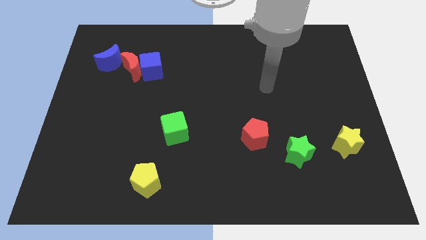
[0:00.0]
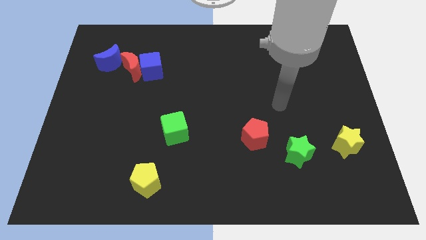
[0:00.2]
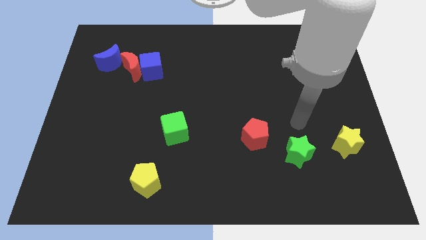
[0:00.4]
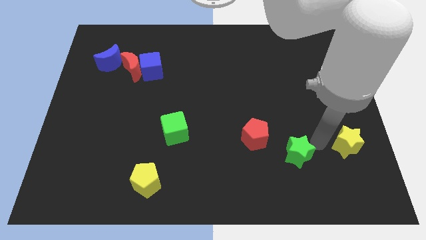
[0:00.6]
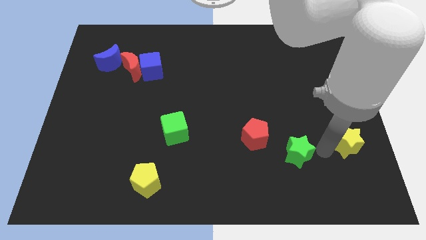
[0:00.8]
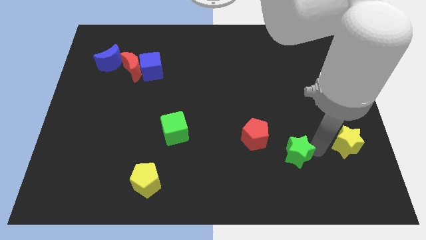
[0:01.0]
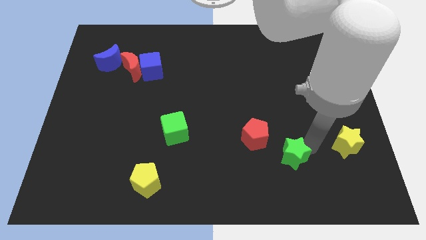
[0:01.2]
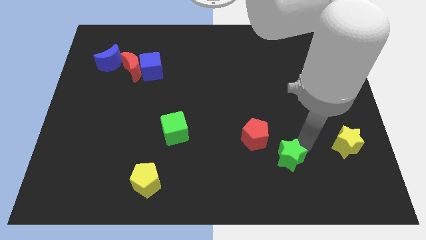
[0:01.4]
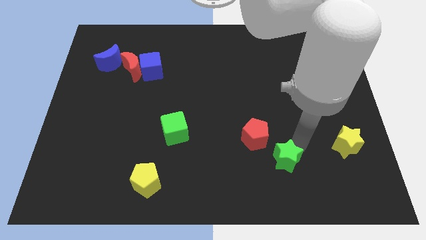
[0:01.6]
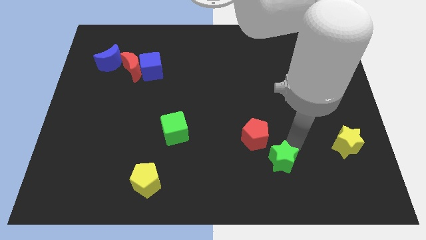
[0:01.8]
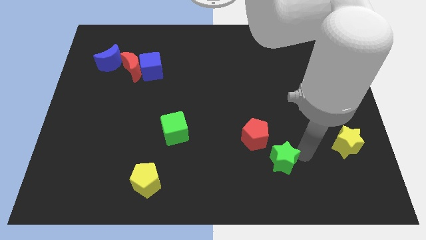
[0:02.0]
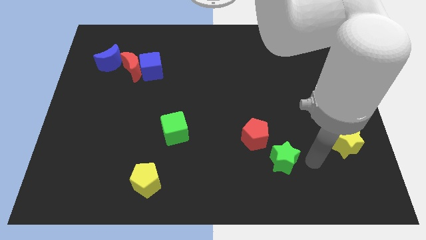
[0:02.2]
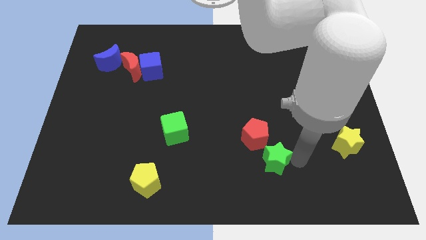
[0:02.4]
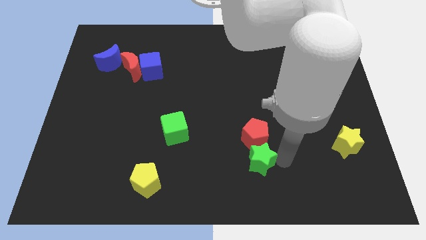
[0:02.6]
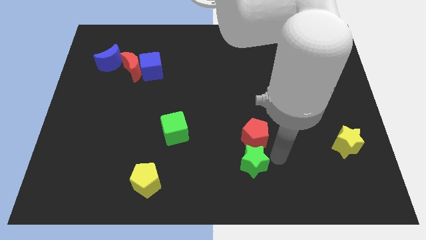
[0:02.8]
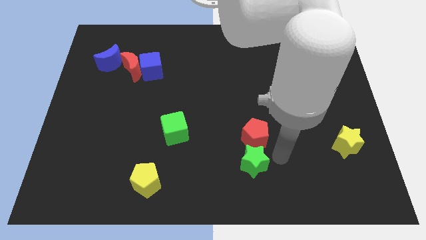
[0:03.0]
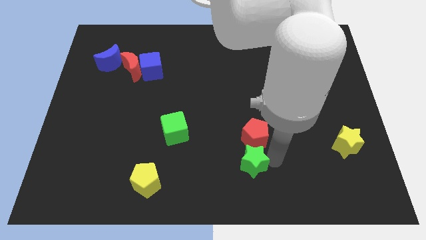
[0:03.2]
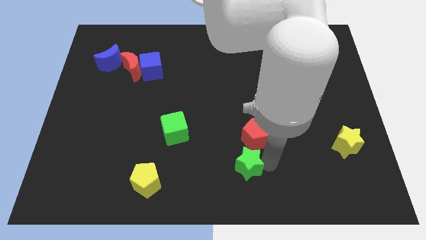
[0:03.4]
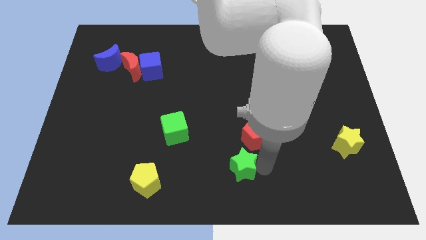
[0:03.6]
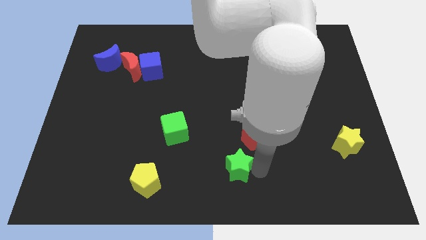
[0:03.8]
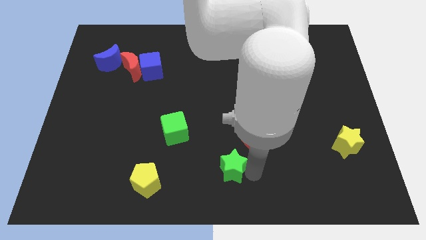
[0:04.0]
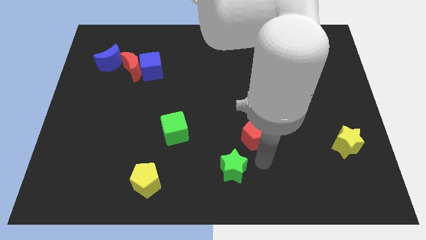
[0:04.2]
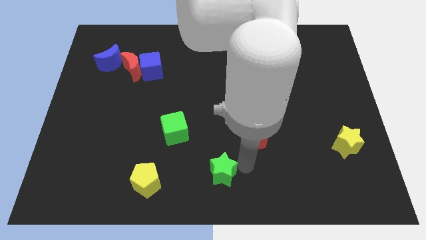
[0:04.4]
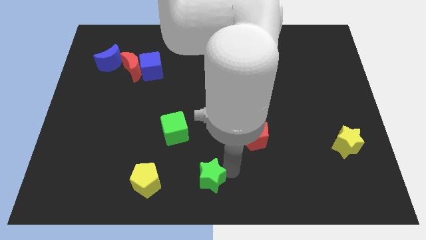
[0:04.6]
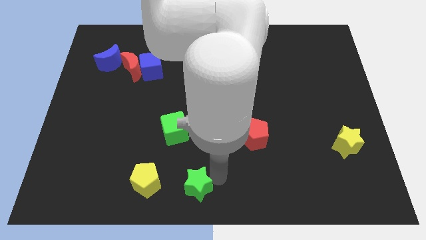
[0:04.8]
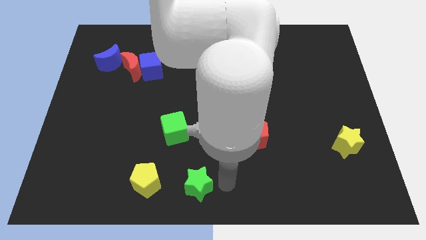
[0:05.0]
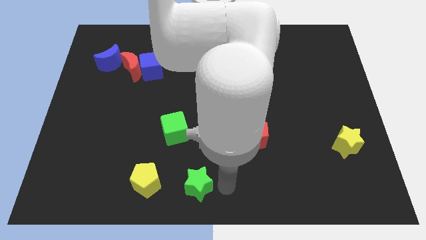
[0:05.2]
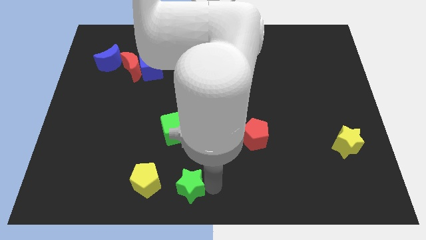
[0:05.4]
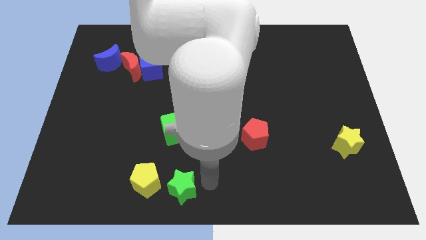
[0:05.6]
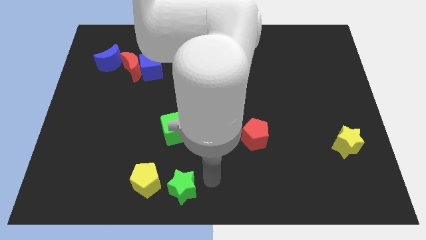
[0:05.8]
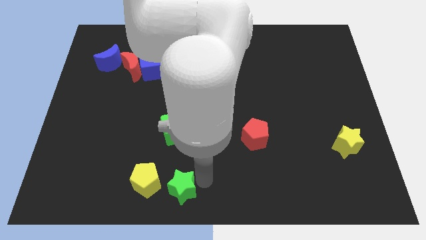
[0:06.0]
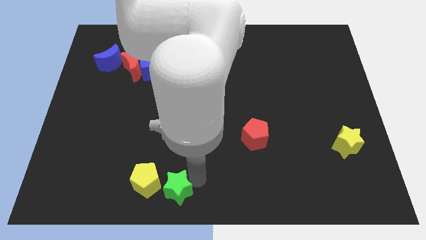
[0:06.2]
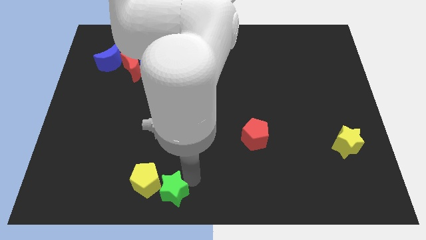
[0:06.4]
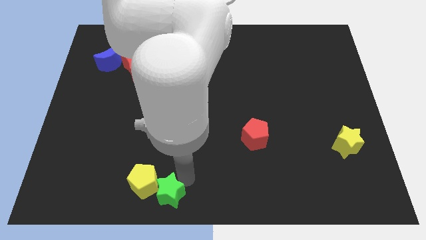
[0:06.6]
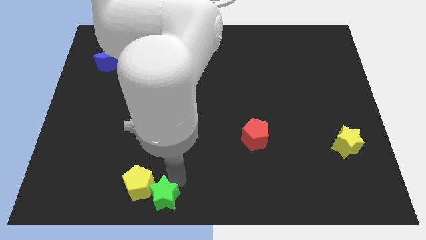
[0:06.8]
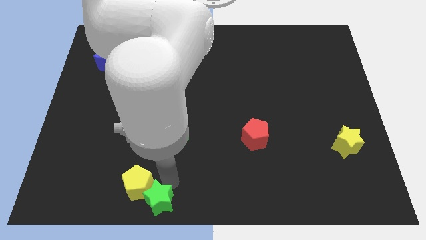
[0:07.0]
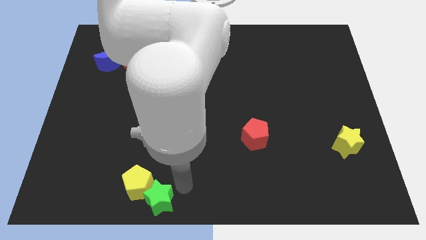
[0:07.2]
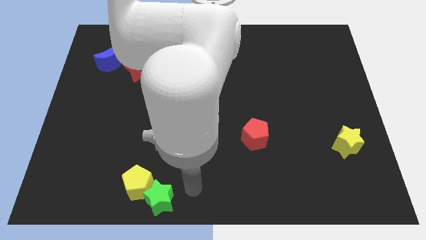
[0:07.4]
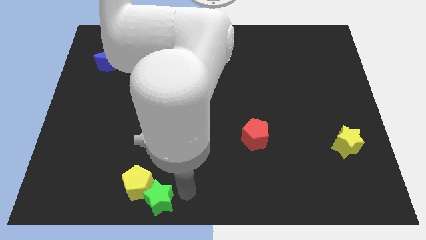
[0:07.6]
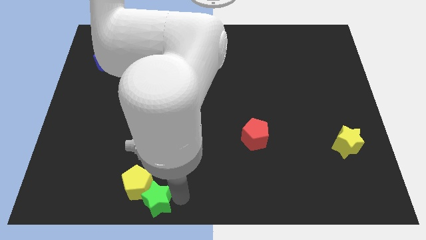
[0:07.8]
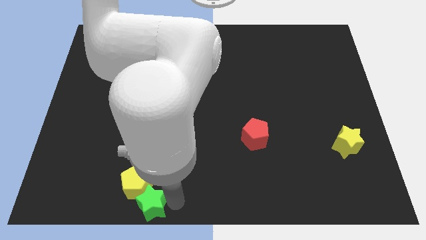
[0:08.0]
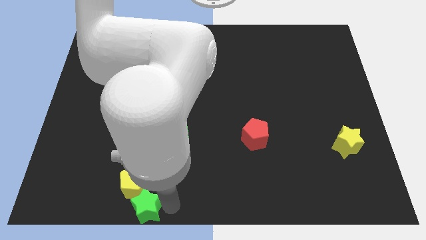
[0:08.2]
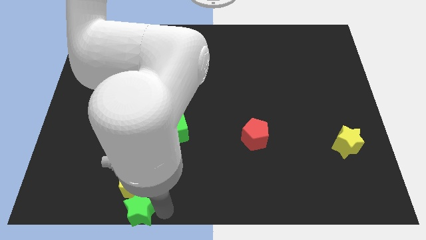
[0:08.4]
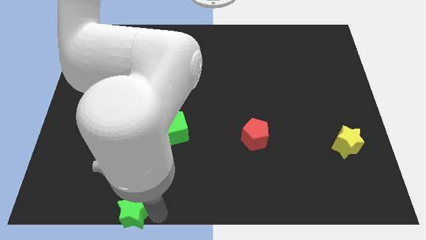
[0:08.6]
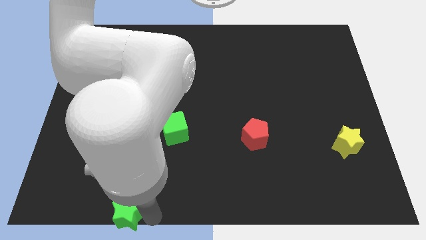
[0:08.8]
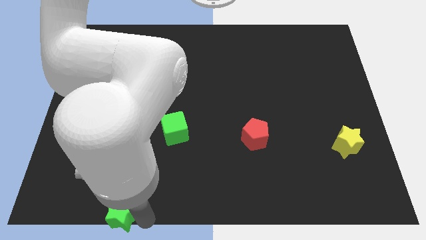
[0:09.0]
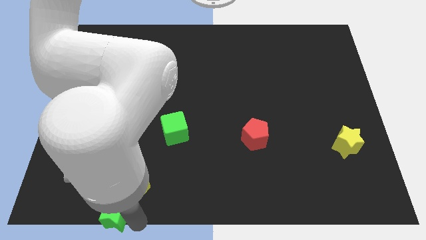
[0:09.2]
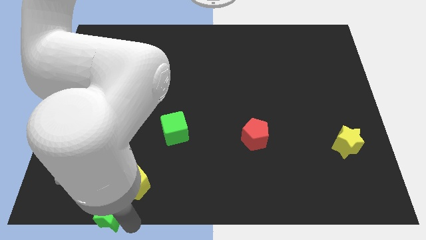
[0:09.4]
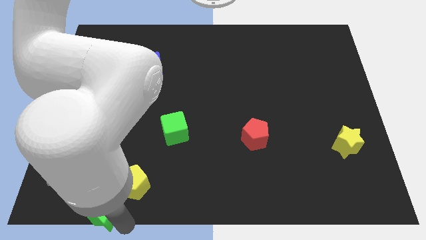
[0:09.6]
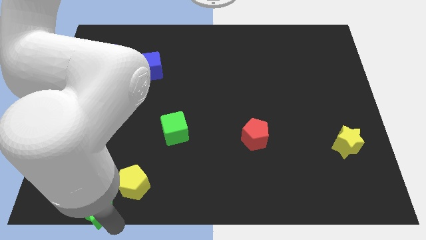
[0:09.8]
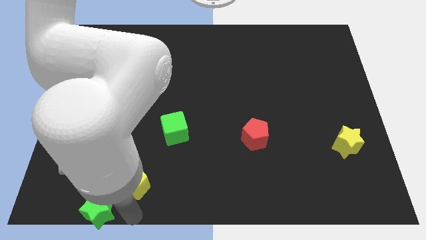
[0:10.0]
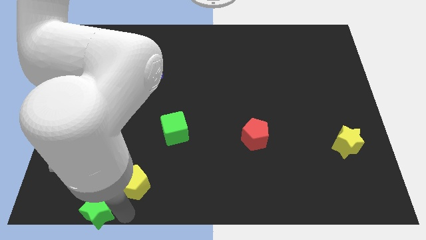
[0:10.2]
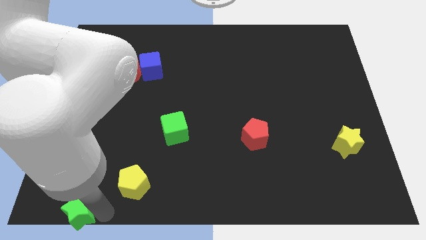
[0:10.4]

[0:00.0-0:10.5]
push the green star to the bottom left

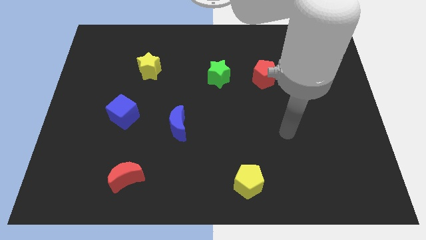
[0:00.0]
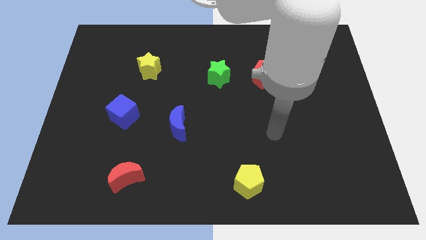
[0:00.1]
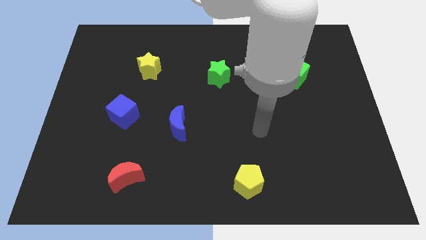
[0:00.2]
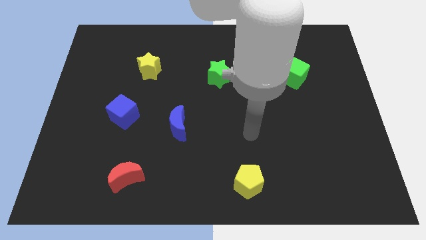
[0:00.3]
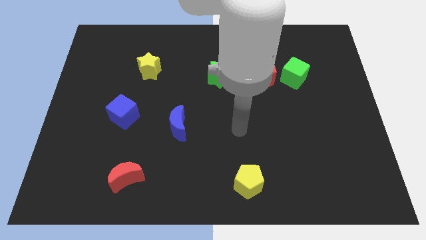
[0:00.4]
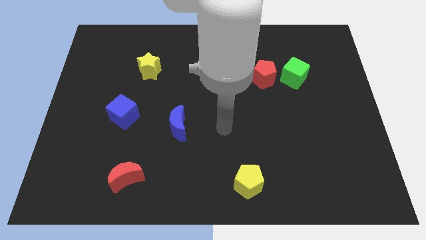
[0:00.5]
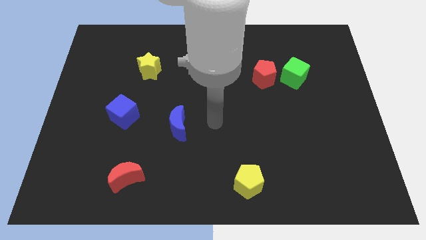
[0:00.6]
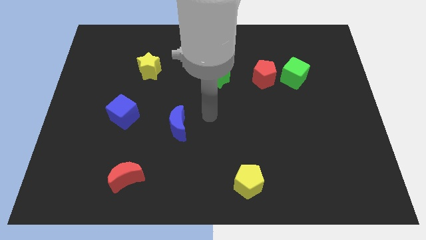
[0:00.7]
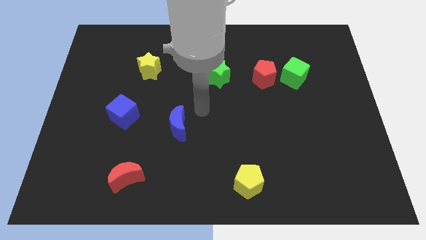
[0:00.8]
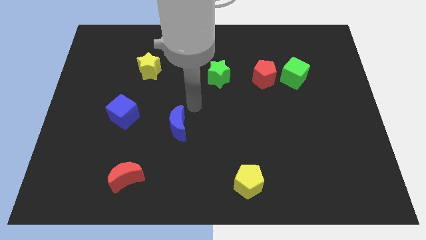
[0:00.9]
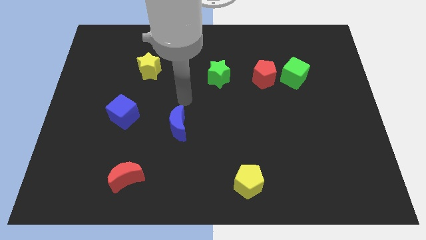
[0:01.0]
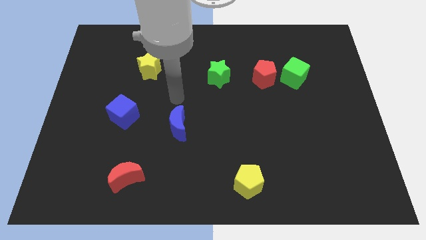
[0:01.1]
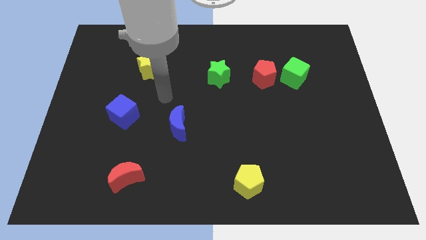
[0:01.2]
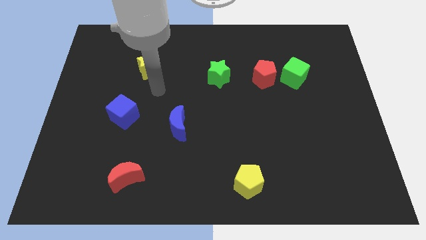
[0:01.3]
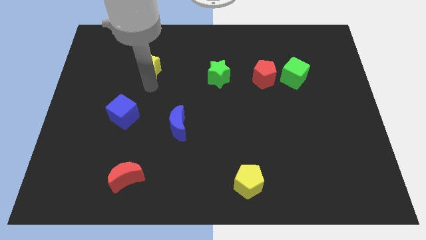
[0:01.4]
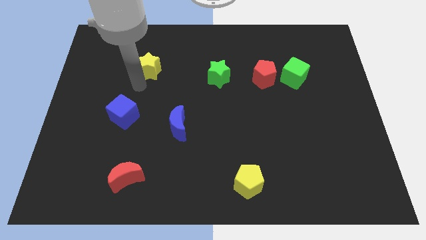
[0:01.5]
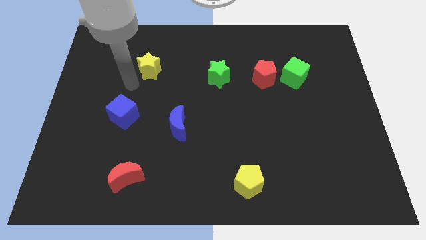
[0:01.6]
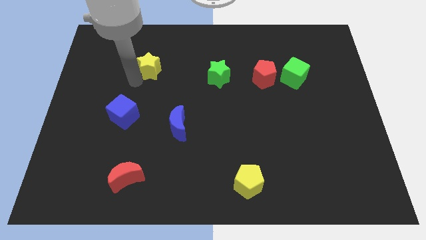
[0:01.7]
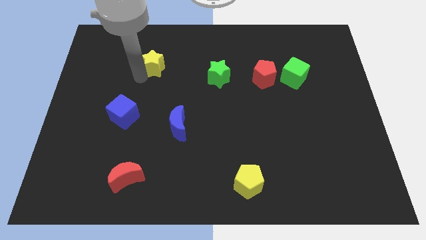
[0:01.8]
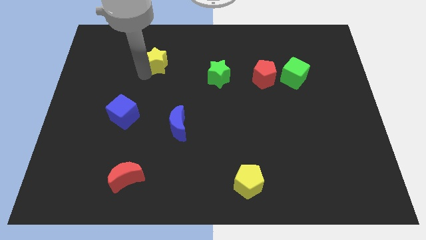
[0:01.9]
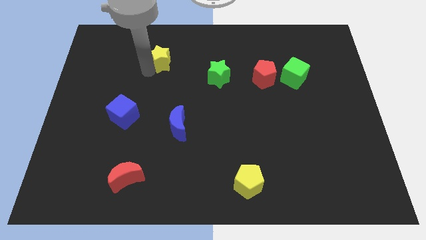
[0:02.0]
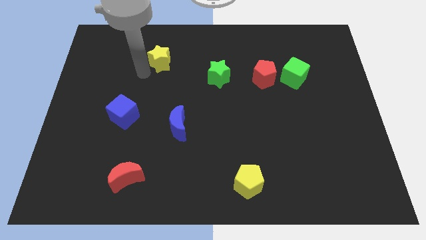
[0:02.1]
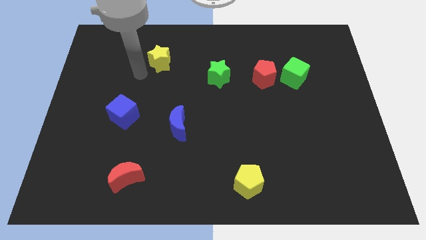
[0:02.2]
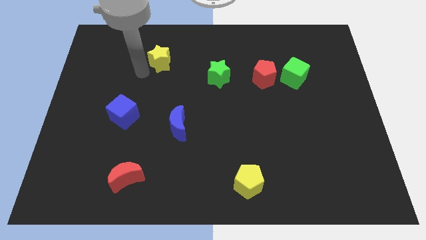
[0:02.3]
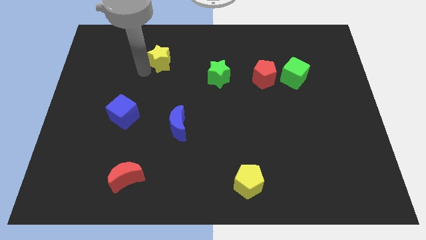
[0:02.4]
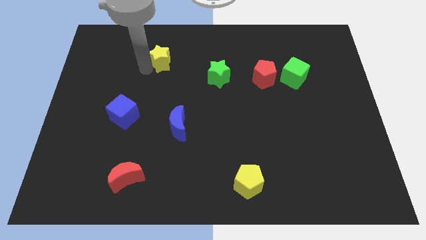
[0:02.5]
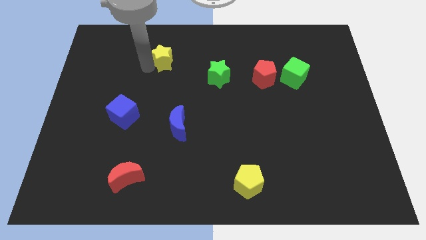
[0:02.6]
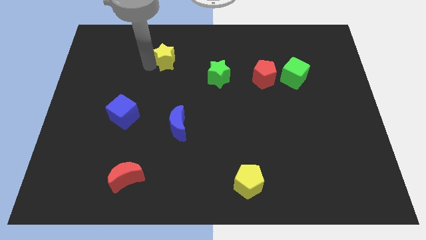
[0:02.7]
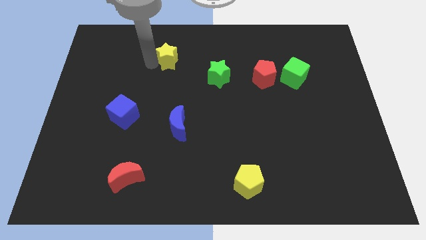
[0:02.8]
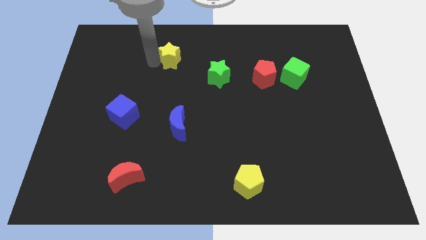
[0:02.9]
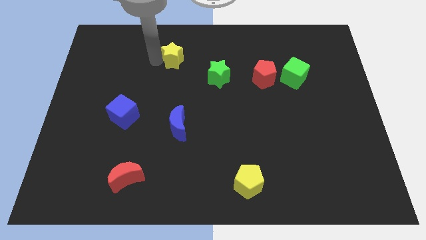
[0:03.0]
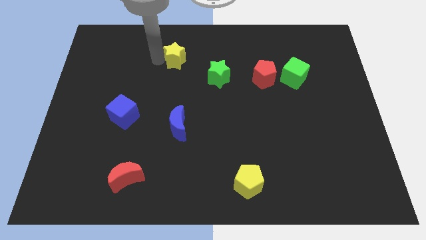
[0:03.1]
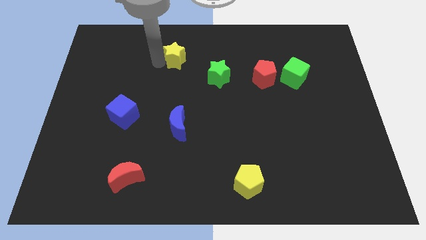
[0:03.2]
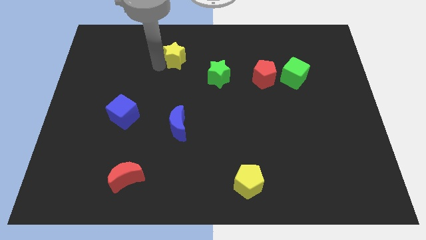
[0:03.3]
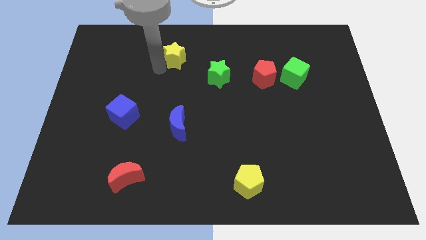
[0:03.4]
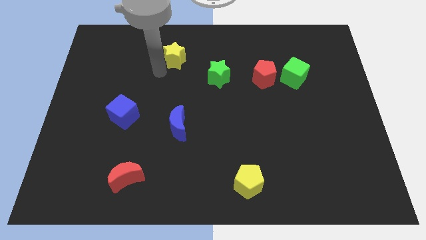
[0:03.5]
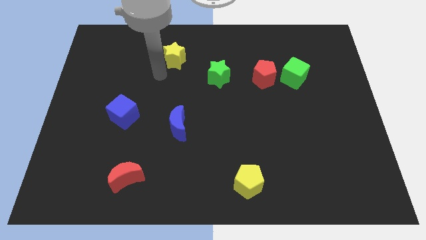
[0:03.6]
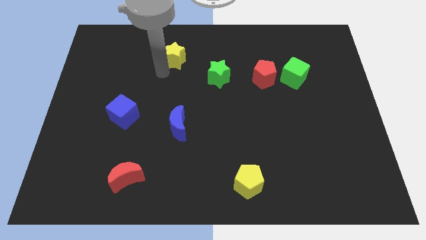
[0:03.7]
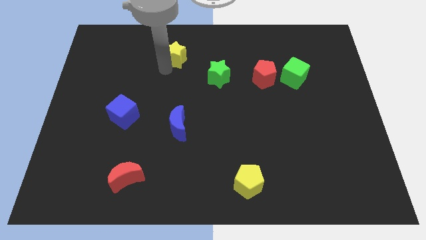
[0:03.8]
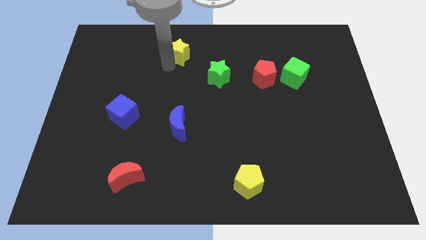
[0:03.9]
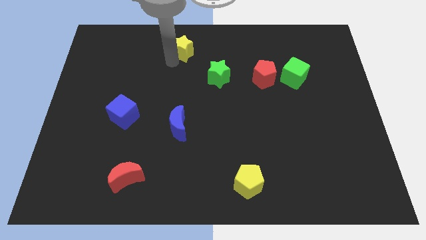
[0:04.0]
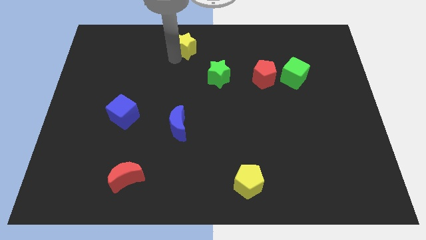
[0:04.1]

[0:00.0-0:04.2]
move the yellow star to the towards your base
